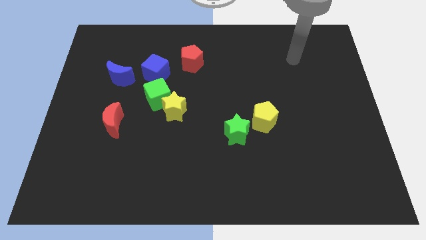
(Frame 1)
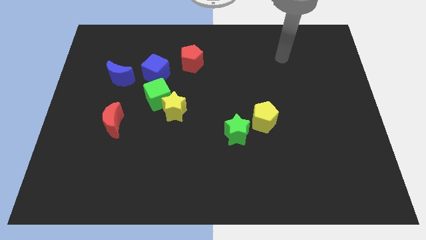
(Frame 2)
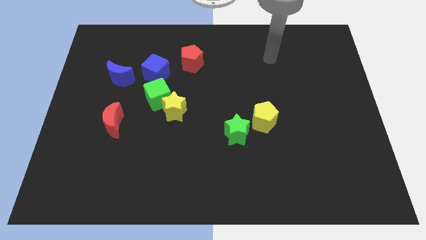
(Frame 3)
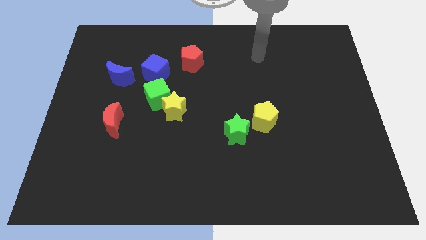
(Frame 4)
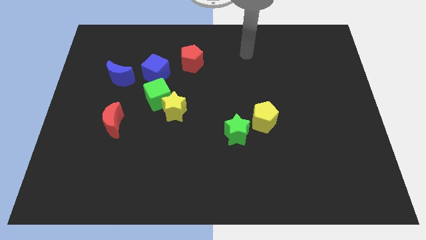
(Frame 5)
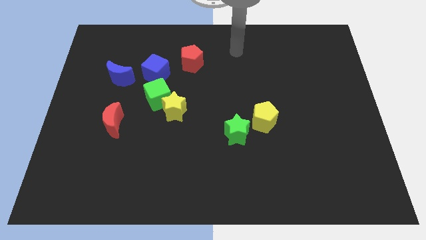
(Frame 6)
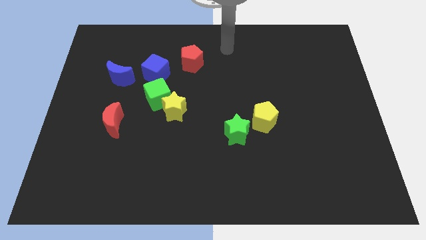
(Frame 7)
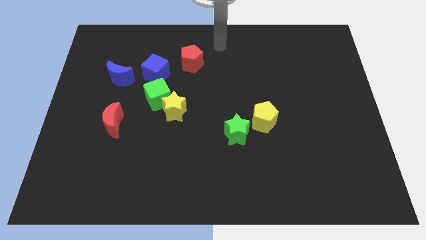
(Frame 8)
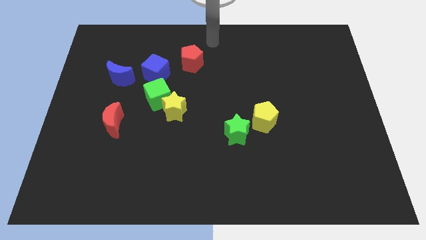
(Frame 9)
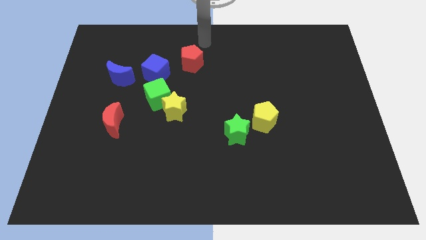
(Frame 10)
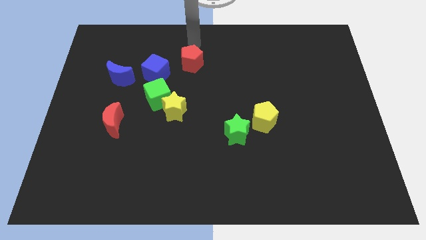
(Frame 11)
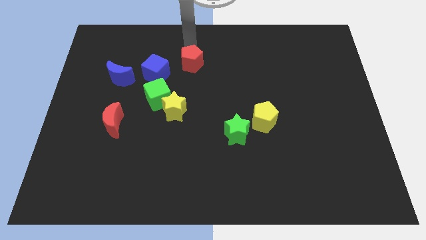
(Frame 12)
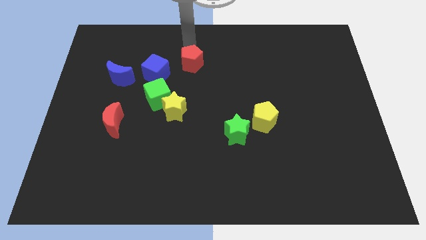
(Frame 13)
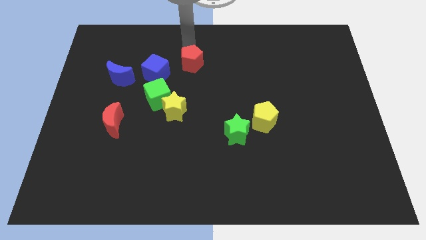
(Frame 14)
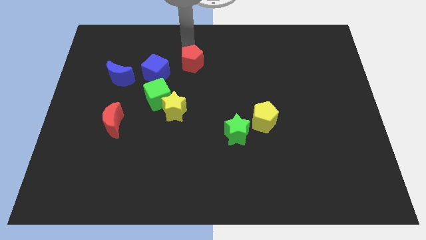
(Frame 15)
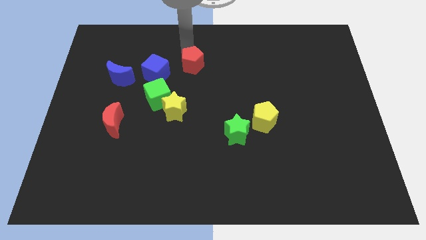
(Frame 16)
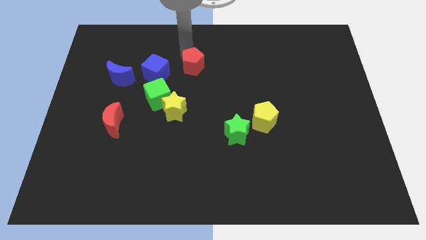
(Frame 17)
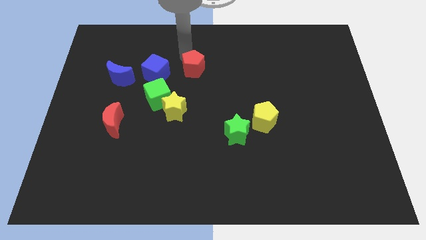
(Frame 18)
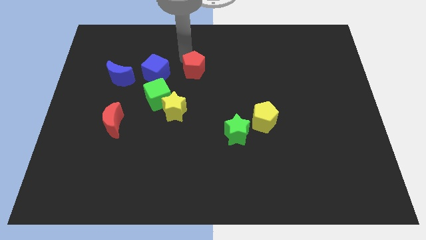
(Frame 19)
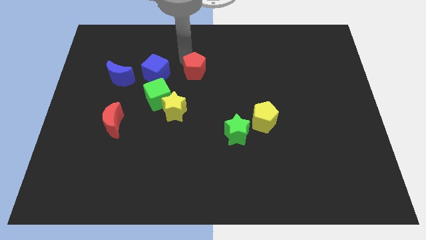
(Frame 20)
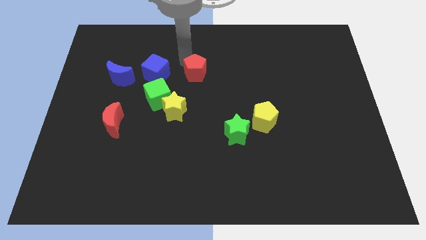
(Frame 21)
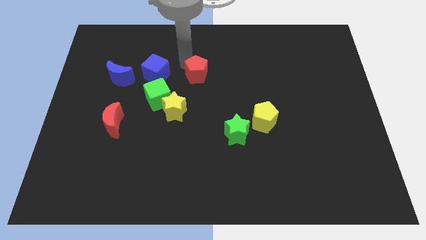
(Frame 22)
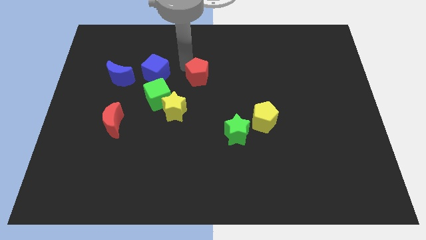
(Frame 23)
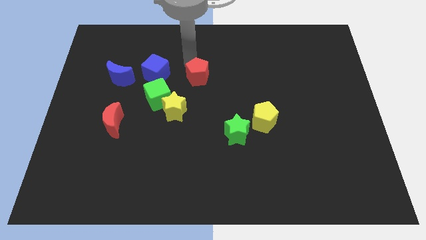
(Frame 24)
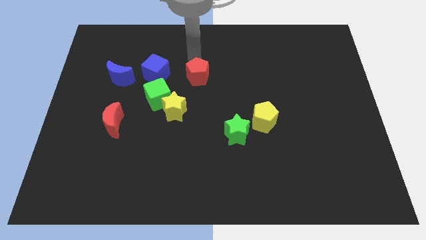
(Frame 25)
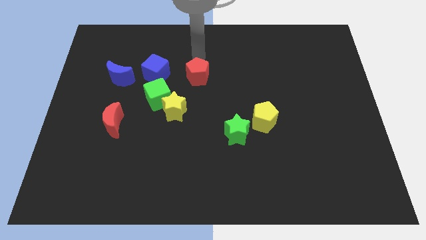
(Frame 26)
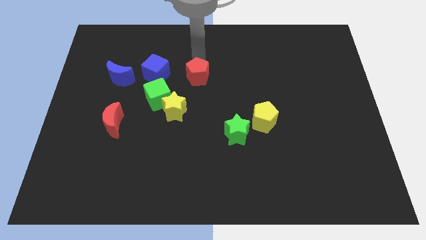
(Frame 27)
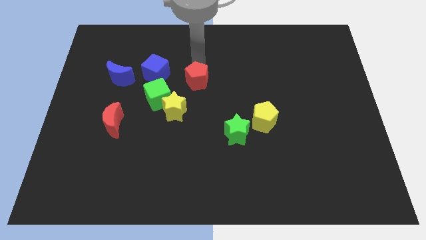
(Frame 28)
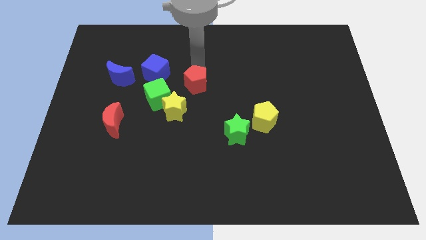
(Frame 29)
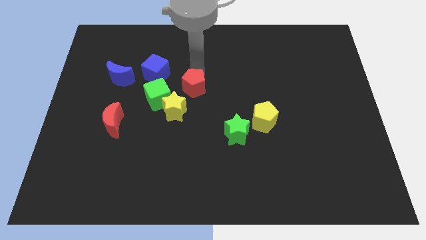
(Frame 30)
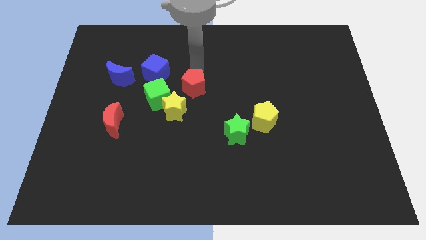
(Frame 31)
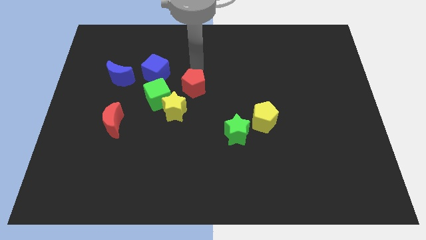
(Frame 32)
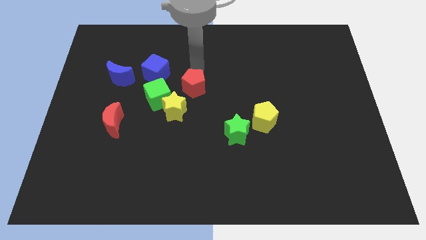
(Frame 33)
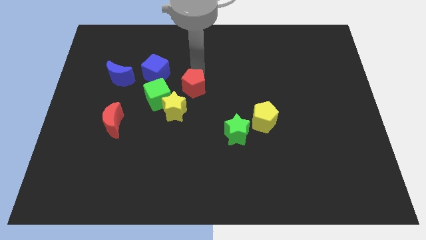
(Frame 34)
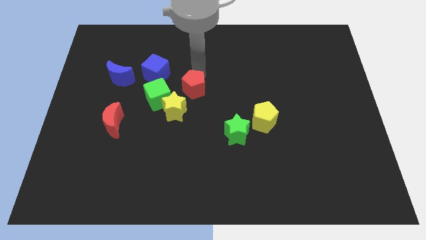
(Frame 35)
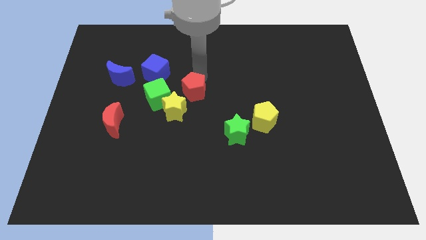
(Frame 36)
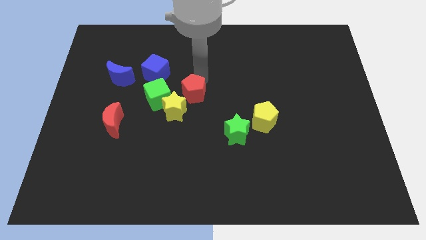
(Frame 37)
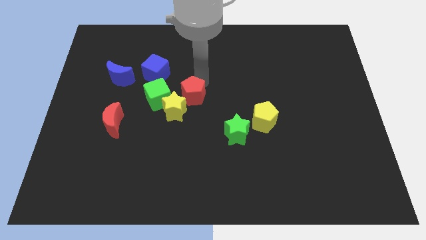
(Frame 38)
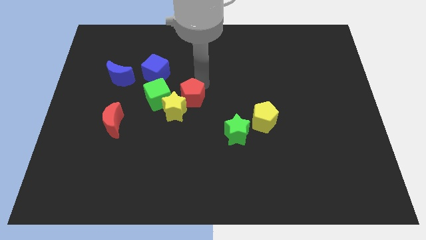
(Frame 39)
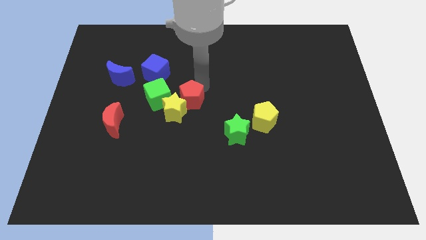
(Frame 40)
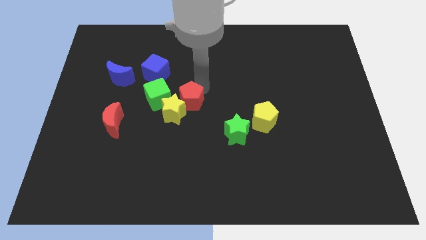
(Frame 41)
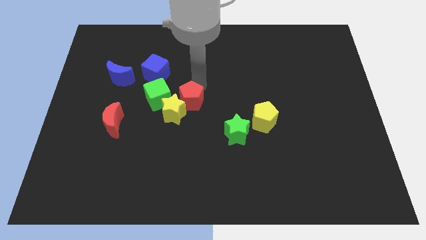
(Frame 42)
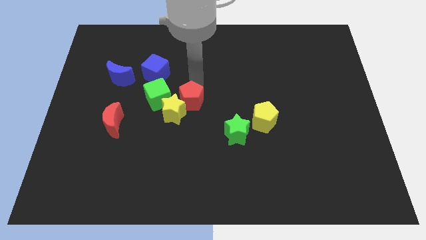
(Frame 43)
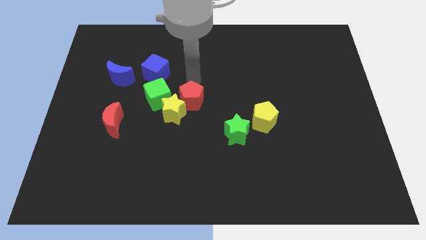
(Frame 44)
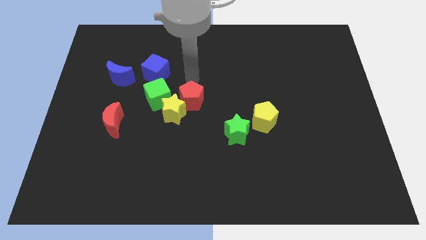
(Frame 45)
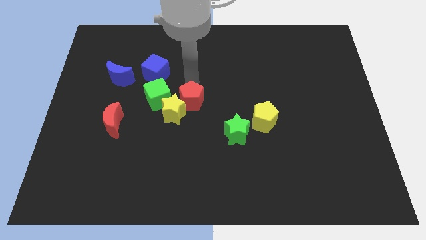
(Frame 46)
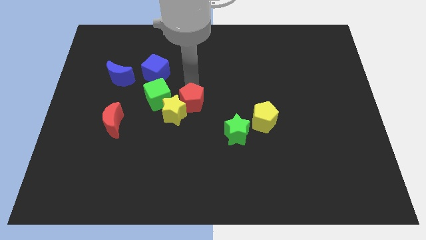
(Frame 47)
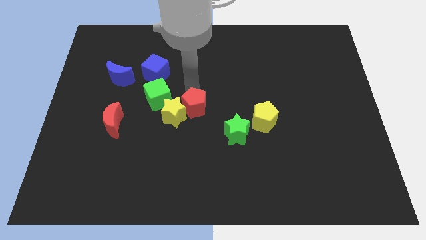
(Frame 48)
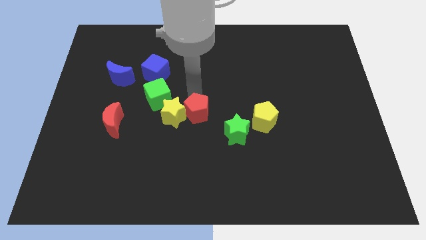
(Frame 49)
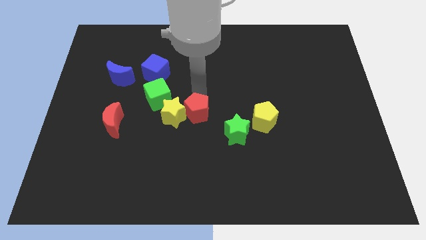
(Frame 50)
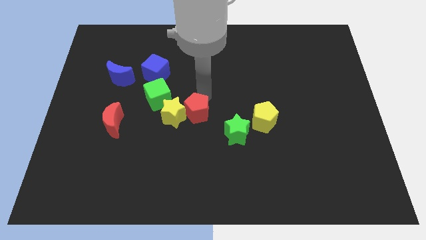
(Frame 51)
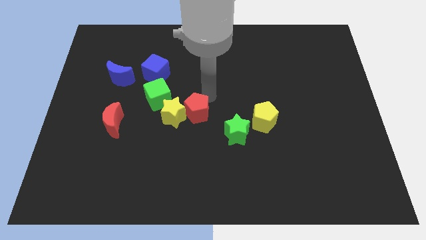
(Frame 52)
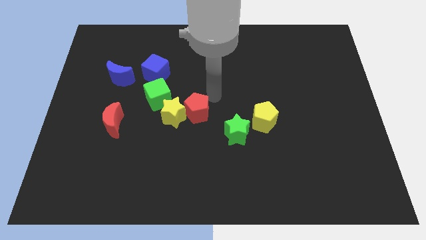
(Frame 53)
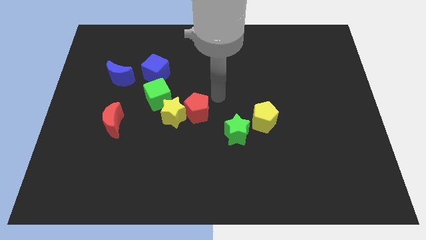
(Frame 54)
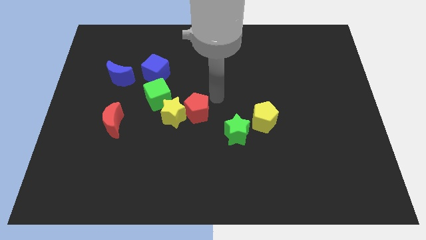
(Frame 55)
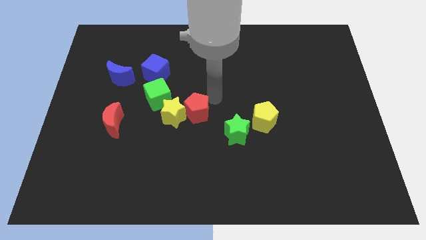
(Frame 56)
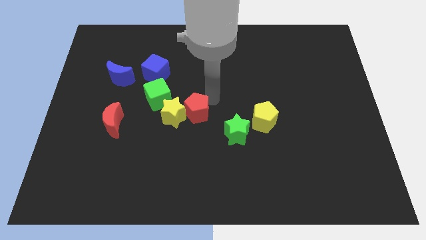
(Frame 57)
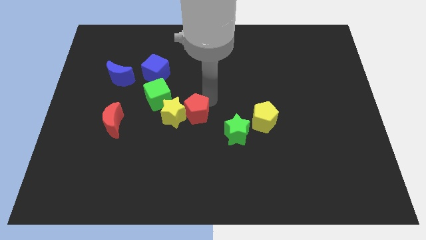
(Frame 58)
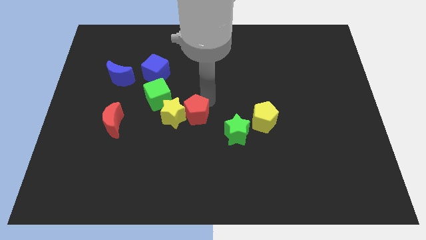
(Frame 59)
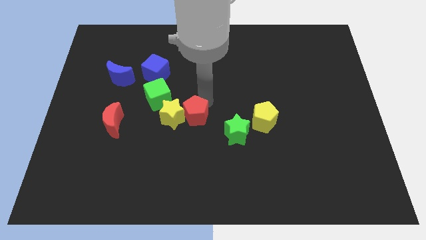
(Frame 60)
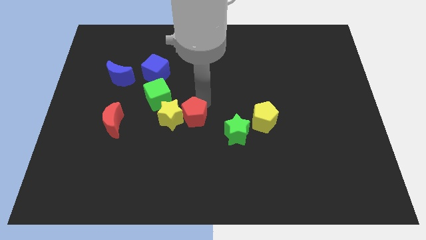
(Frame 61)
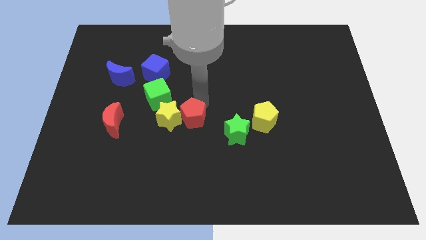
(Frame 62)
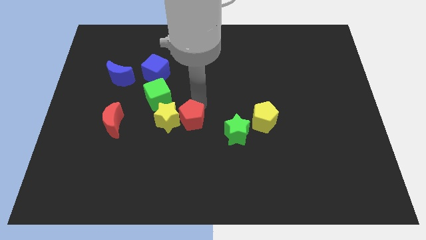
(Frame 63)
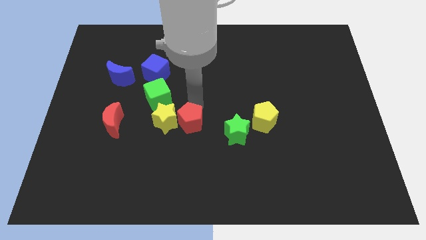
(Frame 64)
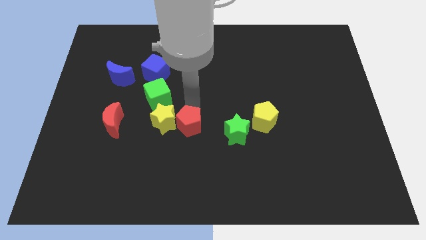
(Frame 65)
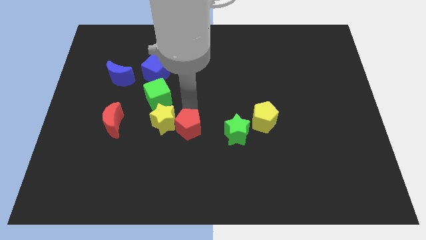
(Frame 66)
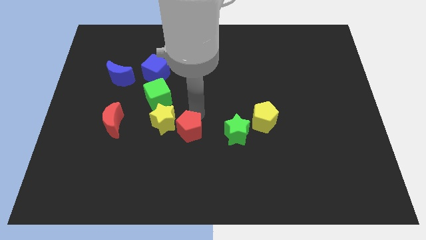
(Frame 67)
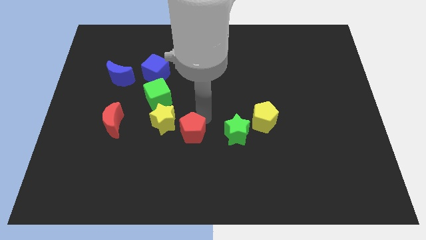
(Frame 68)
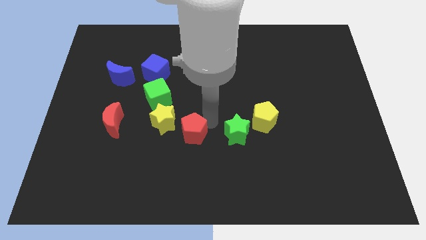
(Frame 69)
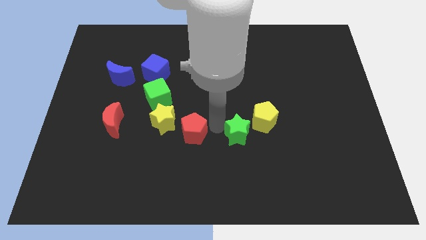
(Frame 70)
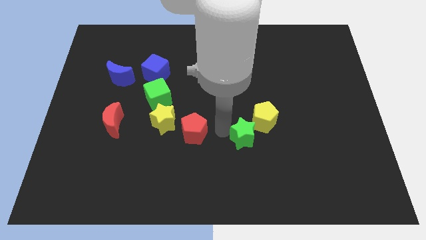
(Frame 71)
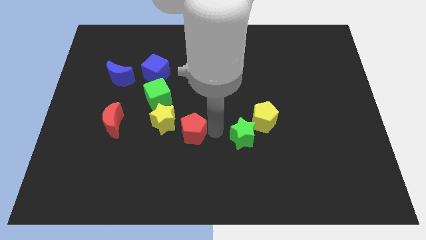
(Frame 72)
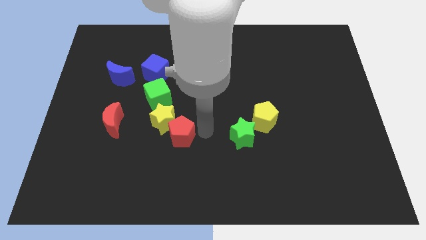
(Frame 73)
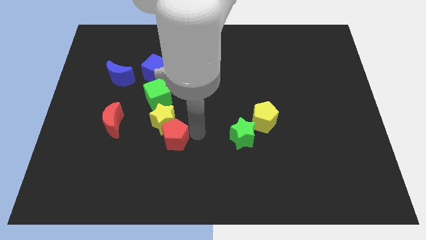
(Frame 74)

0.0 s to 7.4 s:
put the red pentagon below the green cube
